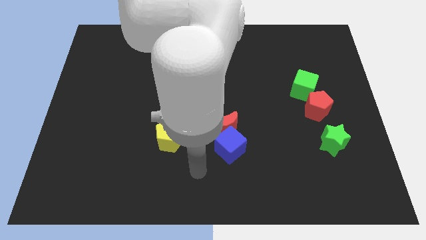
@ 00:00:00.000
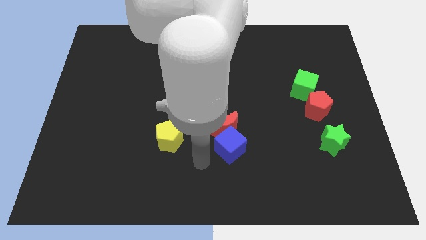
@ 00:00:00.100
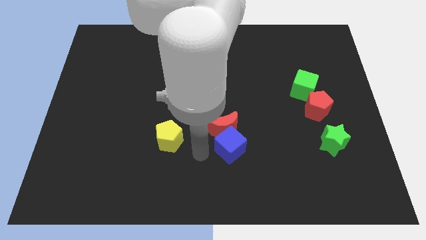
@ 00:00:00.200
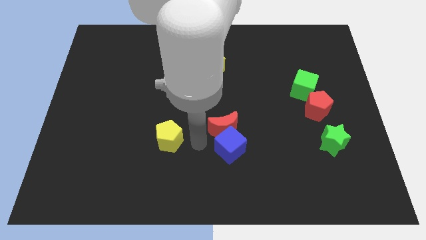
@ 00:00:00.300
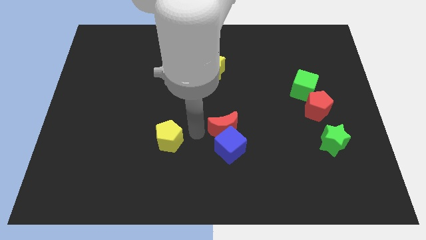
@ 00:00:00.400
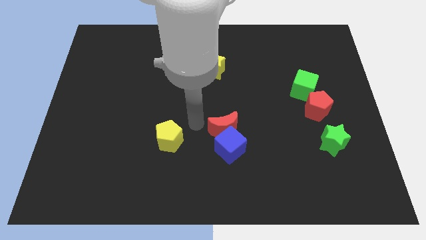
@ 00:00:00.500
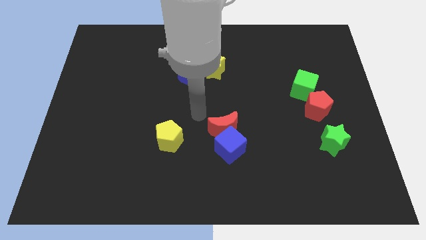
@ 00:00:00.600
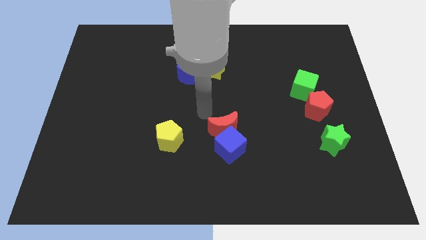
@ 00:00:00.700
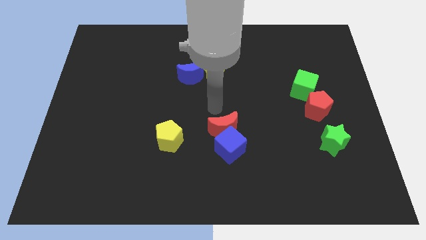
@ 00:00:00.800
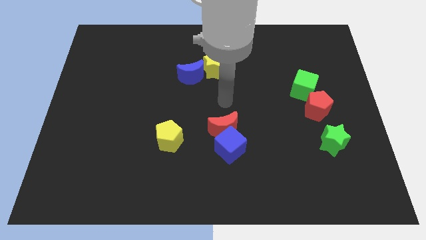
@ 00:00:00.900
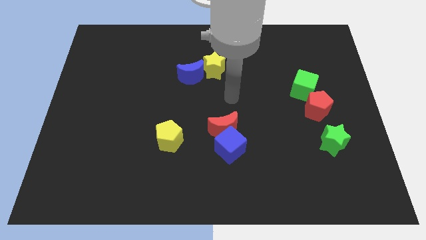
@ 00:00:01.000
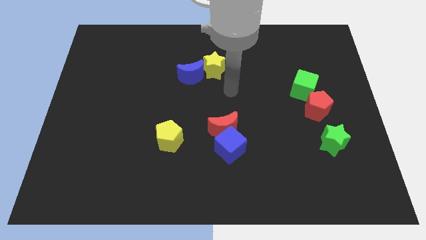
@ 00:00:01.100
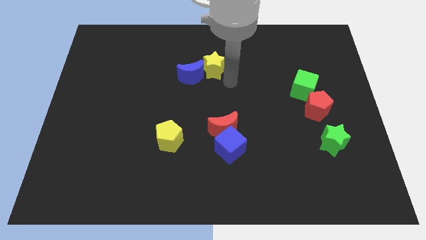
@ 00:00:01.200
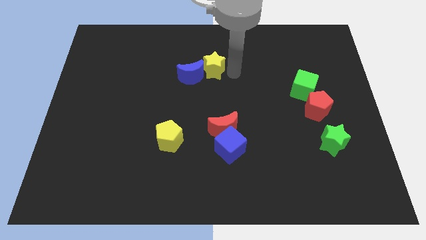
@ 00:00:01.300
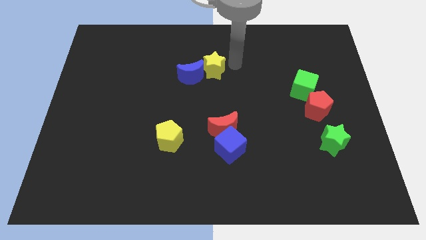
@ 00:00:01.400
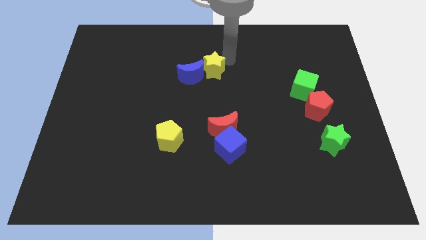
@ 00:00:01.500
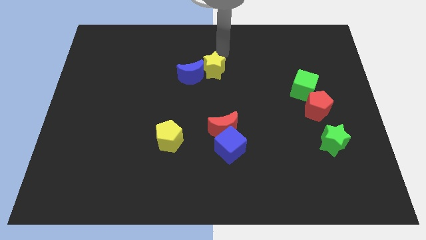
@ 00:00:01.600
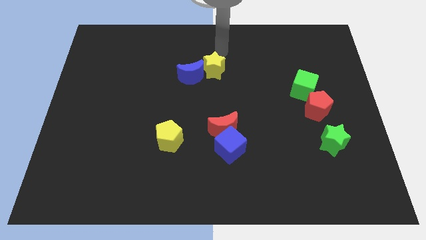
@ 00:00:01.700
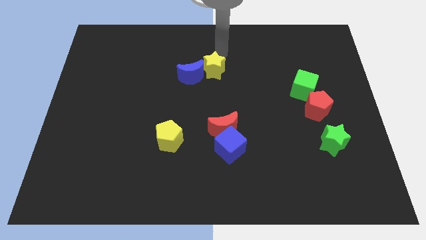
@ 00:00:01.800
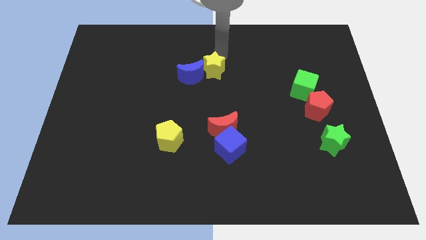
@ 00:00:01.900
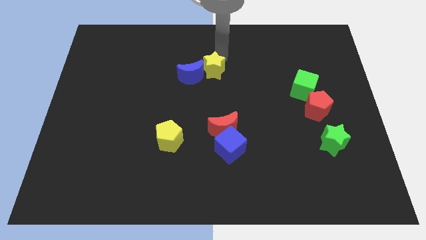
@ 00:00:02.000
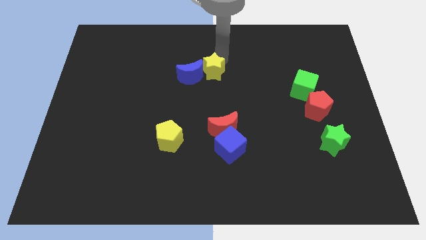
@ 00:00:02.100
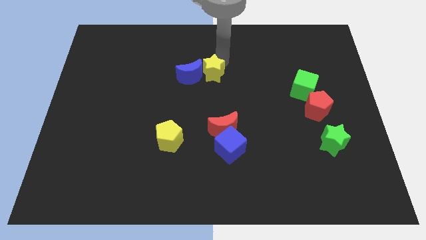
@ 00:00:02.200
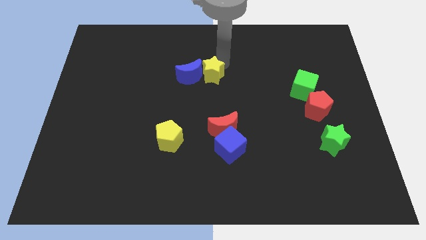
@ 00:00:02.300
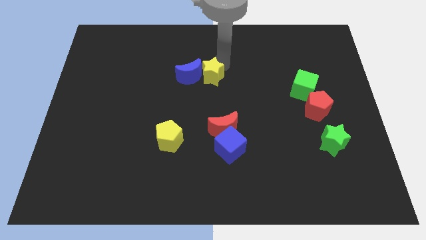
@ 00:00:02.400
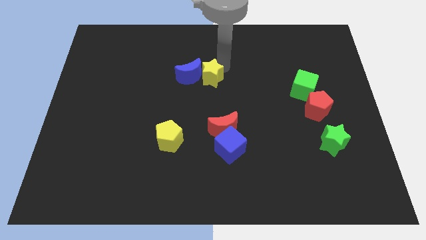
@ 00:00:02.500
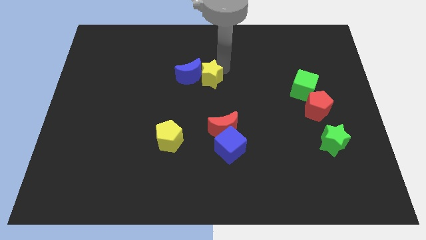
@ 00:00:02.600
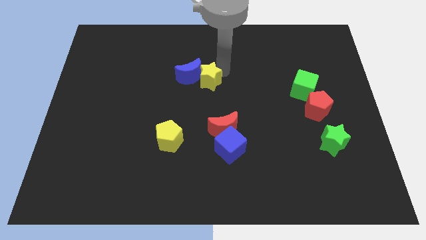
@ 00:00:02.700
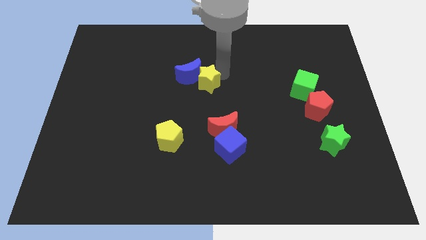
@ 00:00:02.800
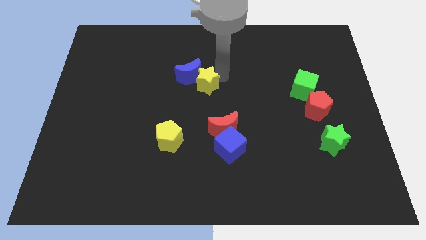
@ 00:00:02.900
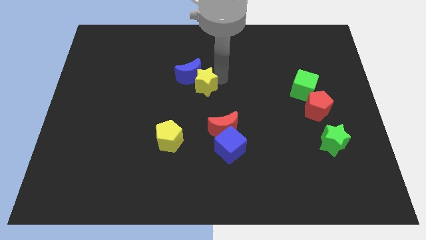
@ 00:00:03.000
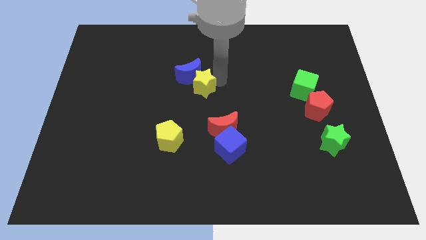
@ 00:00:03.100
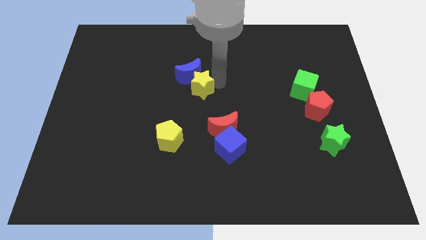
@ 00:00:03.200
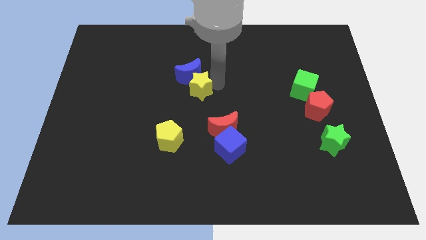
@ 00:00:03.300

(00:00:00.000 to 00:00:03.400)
push the yellow star a bit diagonally down and to the left

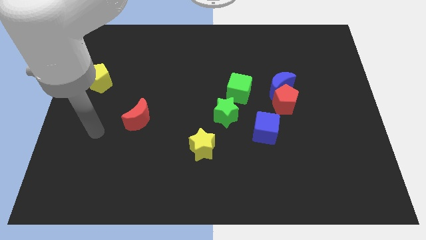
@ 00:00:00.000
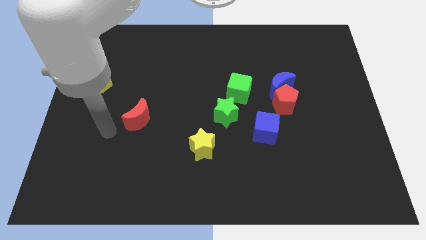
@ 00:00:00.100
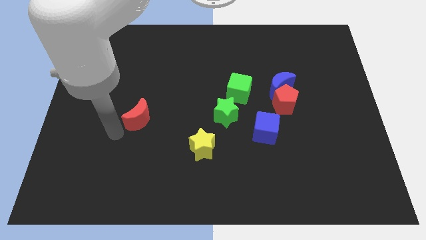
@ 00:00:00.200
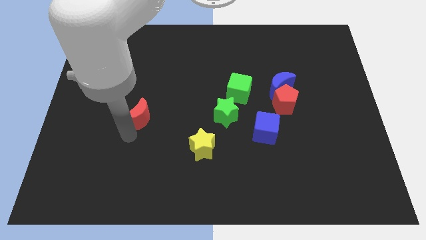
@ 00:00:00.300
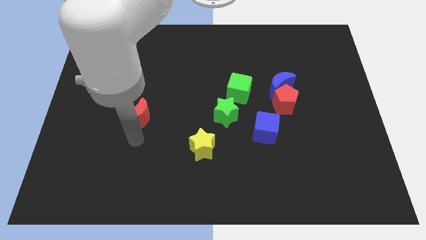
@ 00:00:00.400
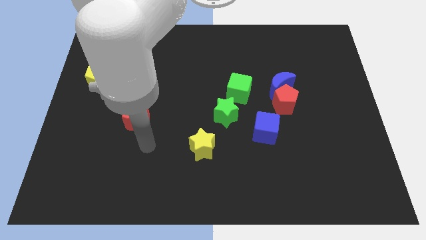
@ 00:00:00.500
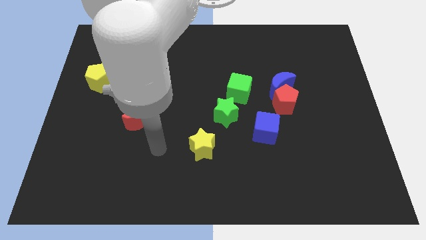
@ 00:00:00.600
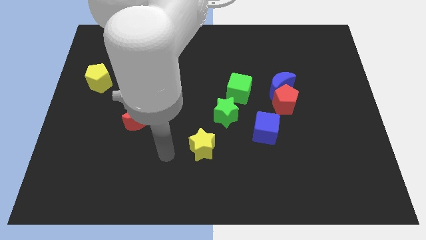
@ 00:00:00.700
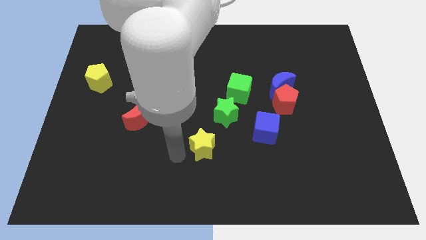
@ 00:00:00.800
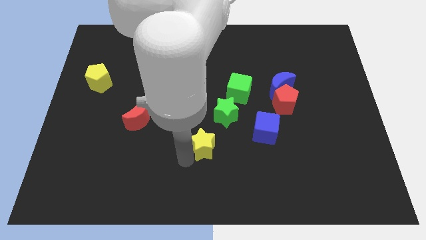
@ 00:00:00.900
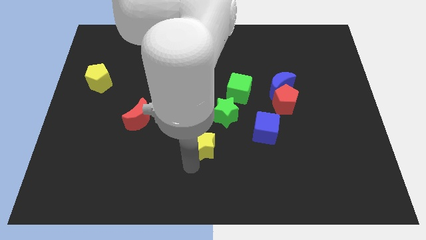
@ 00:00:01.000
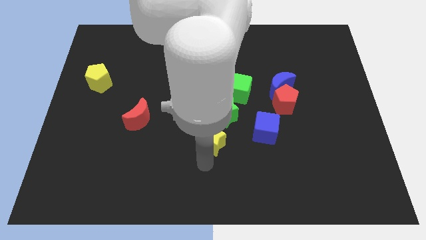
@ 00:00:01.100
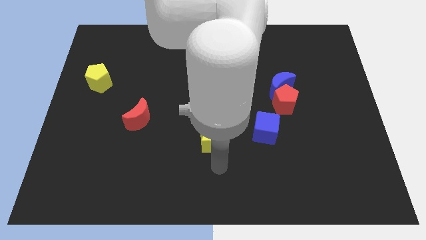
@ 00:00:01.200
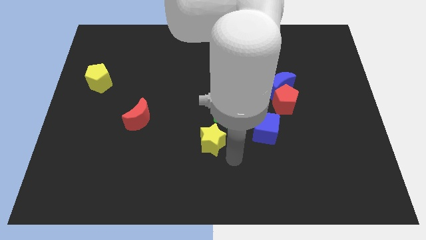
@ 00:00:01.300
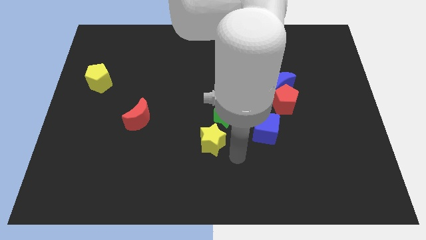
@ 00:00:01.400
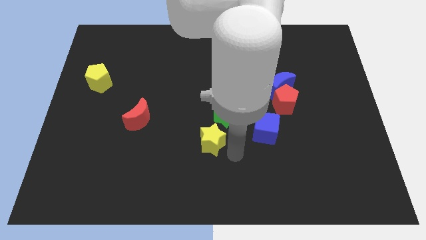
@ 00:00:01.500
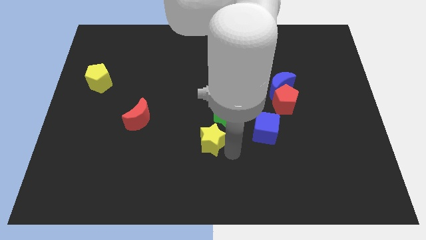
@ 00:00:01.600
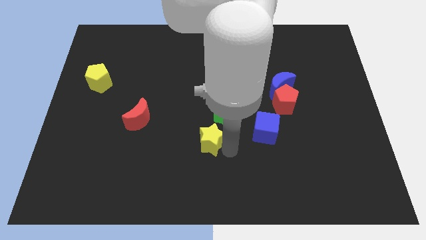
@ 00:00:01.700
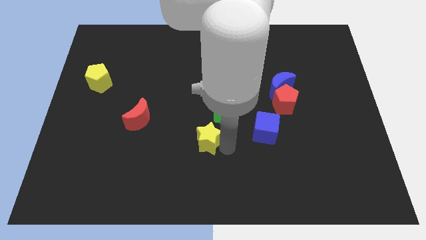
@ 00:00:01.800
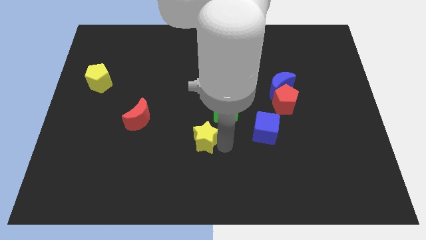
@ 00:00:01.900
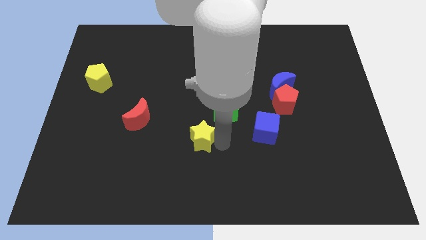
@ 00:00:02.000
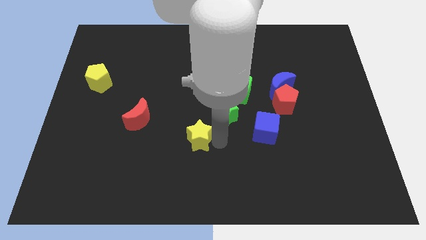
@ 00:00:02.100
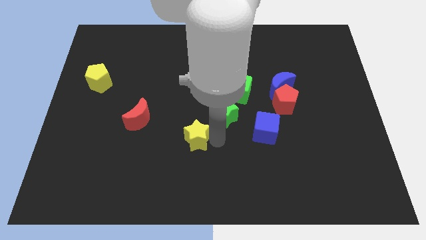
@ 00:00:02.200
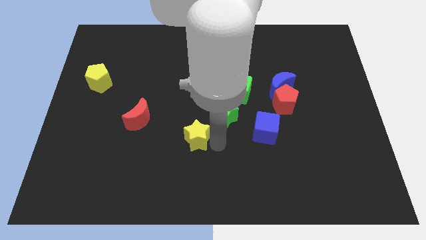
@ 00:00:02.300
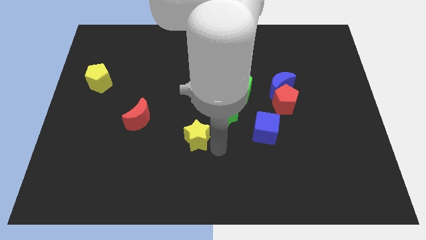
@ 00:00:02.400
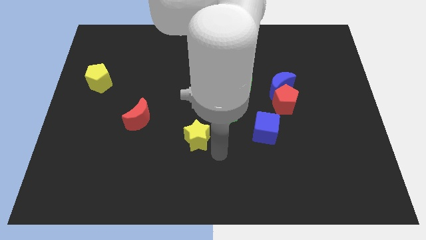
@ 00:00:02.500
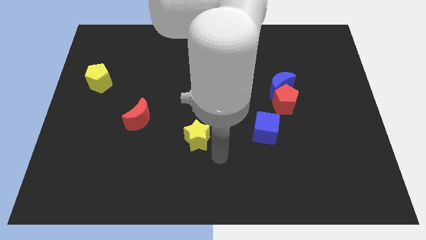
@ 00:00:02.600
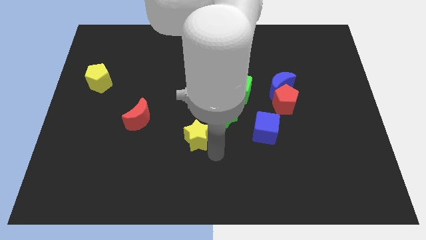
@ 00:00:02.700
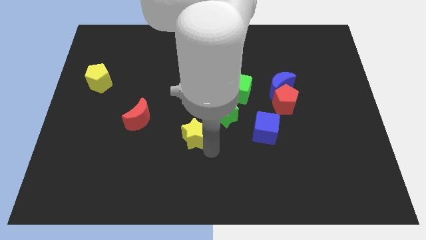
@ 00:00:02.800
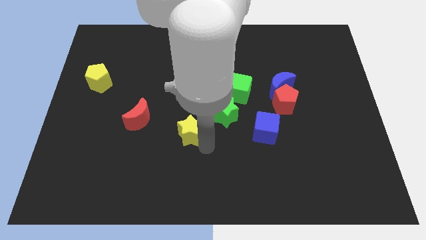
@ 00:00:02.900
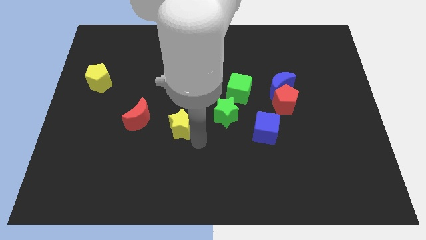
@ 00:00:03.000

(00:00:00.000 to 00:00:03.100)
slightly move the yellow star diagonally upwards and to the left

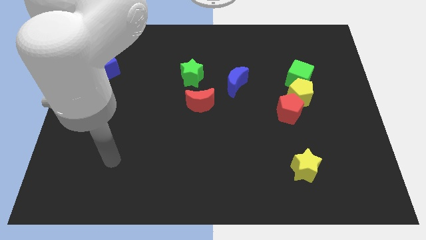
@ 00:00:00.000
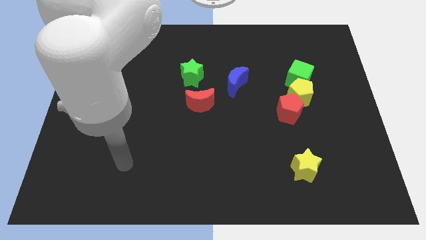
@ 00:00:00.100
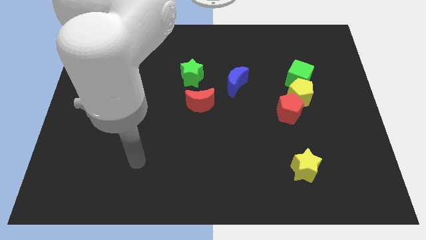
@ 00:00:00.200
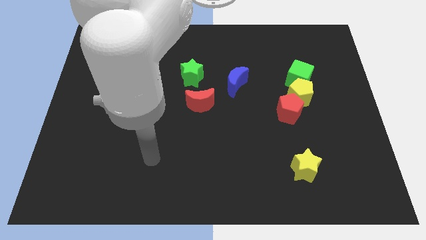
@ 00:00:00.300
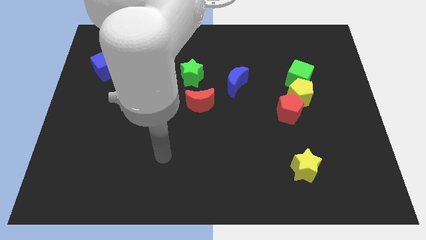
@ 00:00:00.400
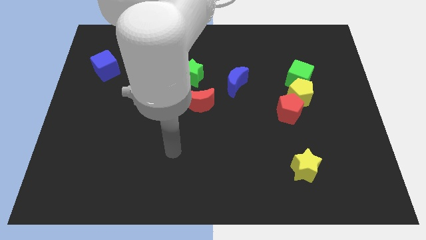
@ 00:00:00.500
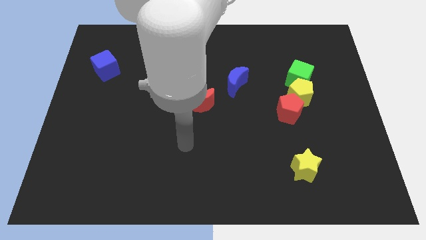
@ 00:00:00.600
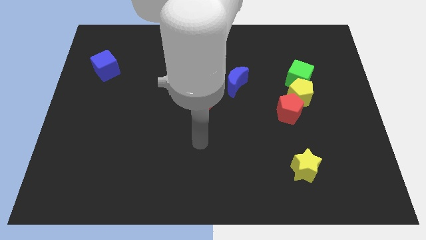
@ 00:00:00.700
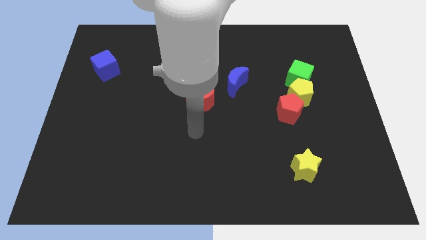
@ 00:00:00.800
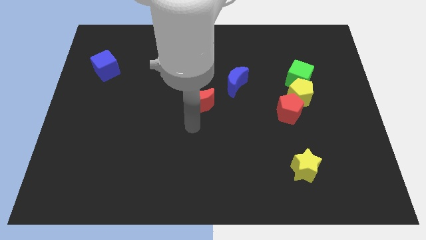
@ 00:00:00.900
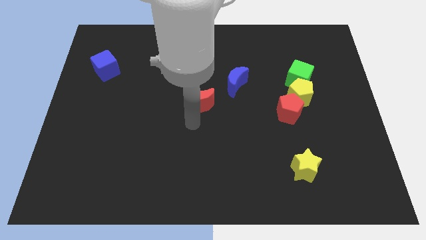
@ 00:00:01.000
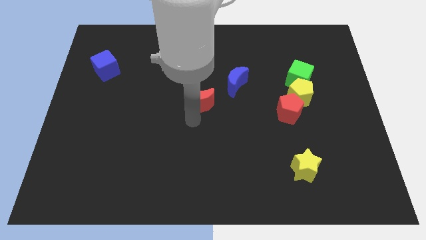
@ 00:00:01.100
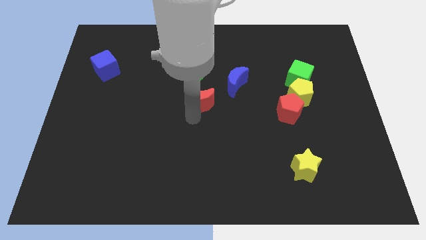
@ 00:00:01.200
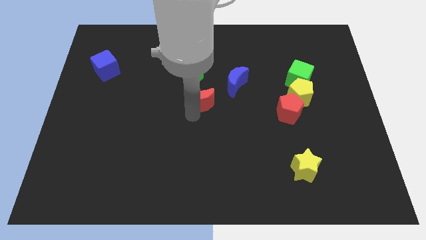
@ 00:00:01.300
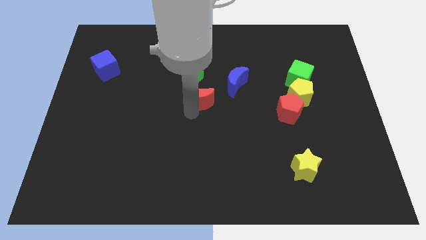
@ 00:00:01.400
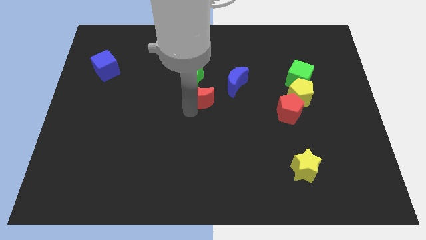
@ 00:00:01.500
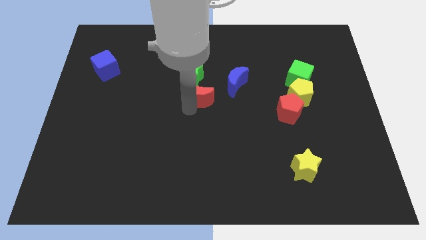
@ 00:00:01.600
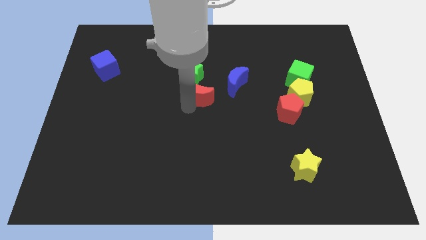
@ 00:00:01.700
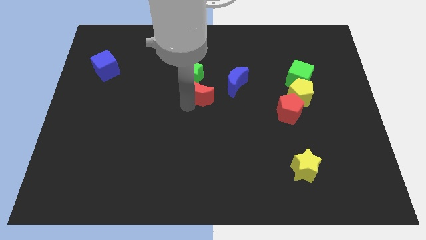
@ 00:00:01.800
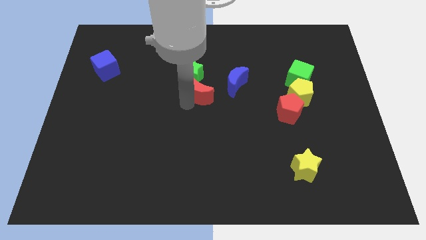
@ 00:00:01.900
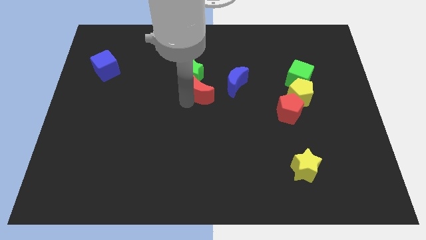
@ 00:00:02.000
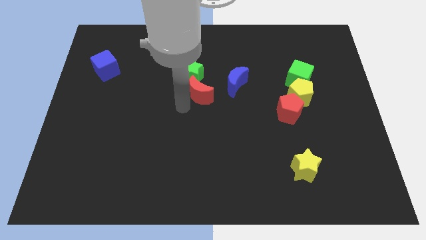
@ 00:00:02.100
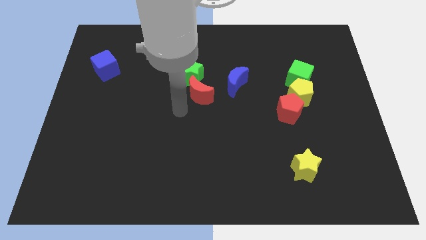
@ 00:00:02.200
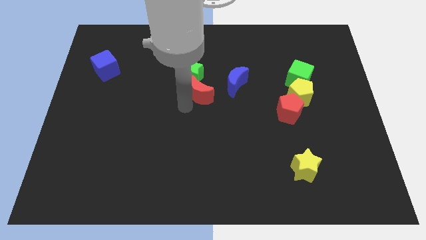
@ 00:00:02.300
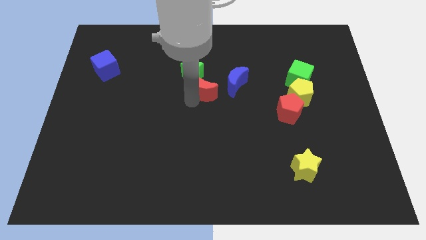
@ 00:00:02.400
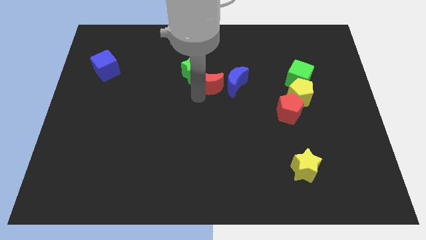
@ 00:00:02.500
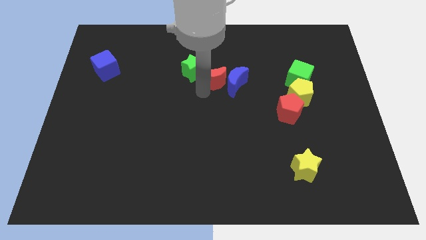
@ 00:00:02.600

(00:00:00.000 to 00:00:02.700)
slide the red moon somewhat up and to the right
